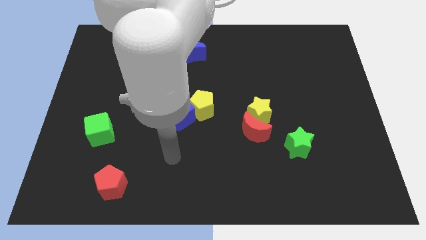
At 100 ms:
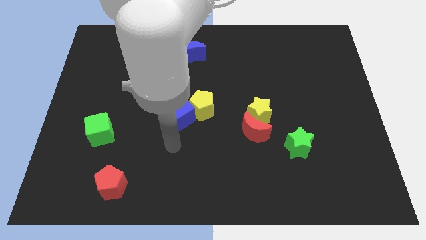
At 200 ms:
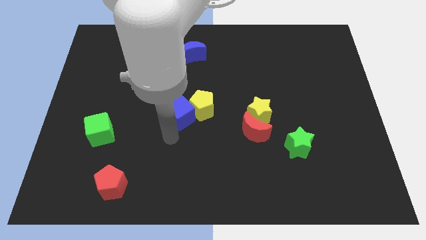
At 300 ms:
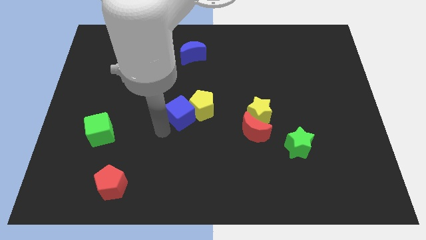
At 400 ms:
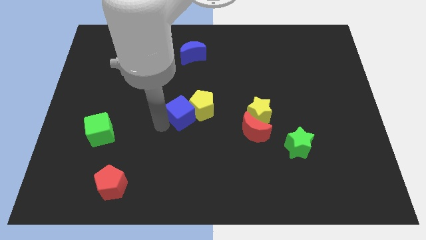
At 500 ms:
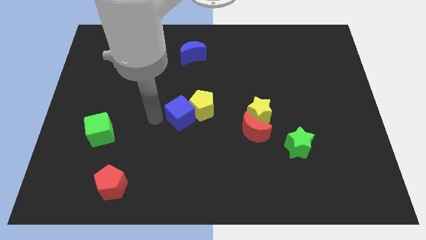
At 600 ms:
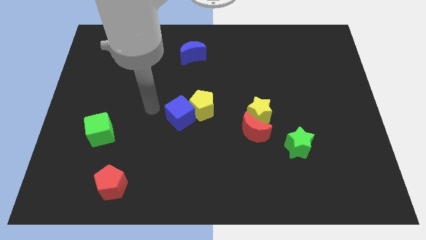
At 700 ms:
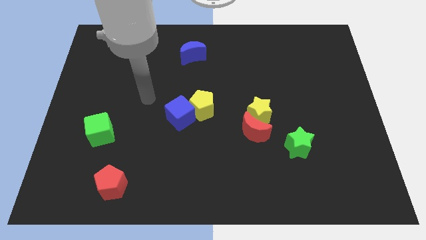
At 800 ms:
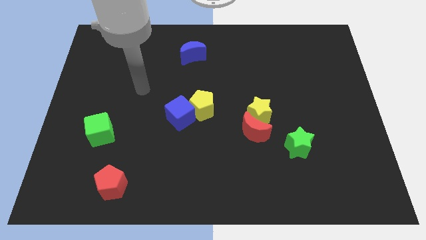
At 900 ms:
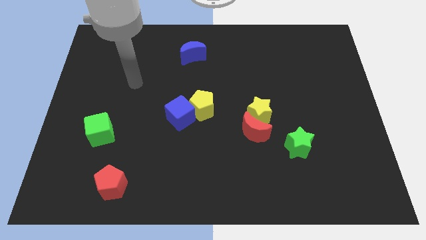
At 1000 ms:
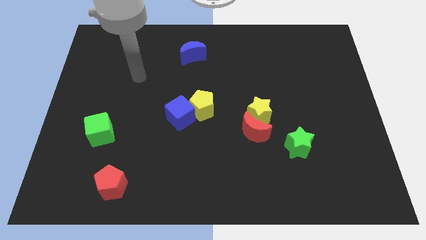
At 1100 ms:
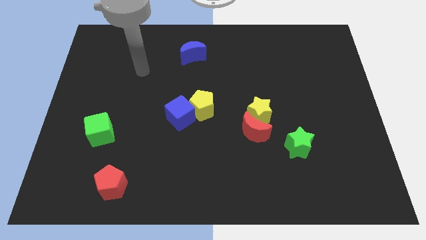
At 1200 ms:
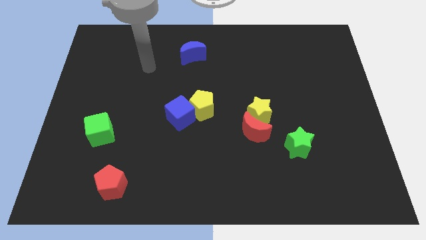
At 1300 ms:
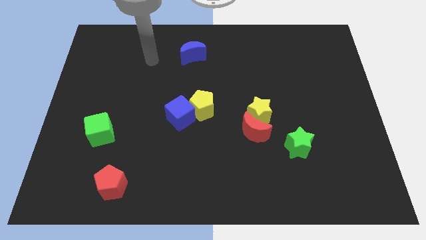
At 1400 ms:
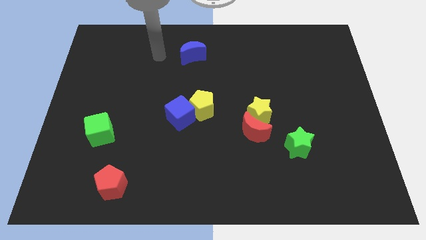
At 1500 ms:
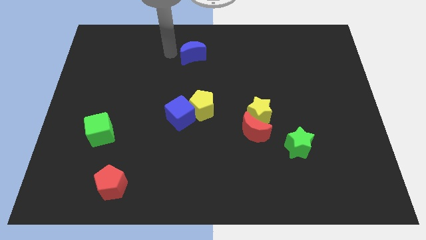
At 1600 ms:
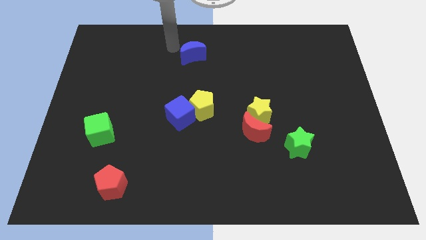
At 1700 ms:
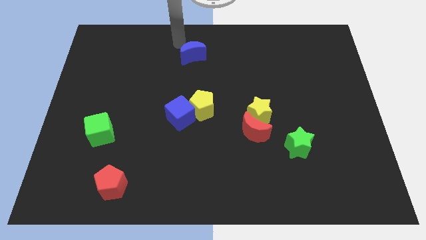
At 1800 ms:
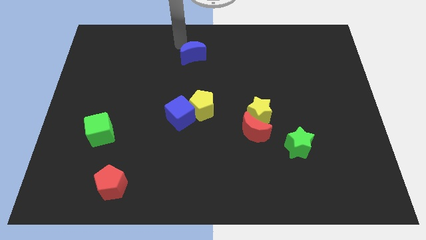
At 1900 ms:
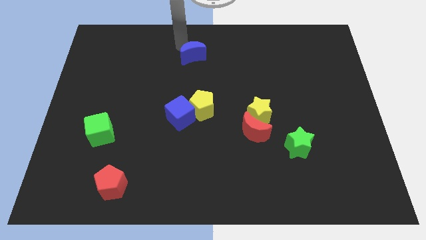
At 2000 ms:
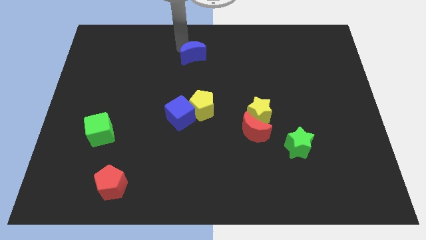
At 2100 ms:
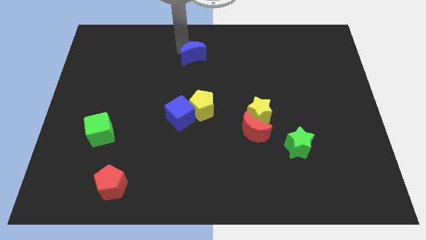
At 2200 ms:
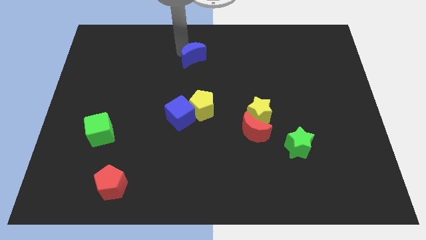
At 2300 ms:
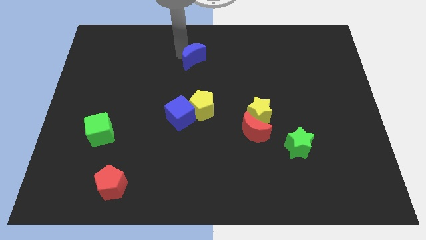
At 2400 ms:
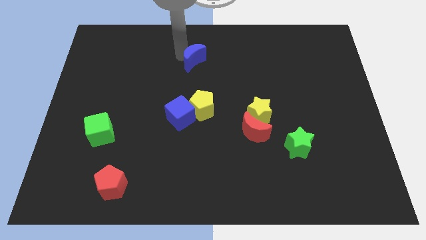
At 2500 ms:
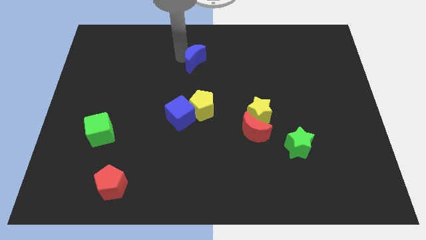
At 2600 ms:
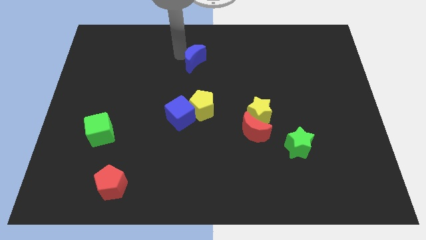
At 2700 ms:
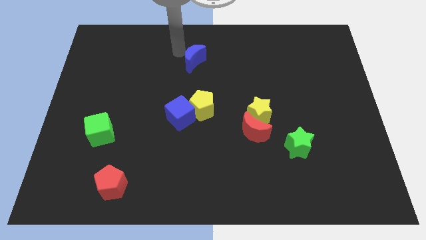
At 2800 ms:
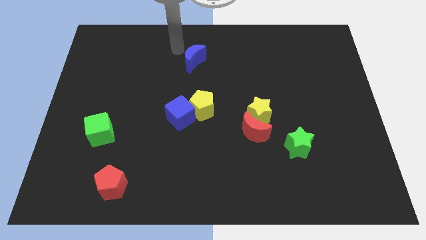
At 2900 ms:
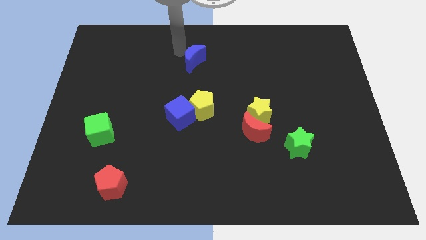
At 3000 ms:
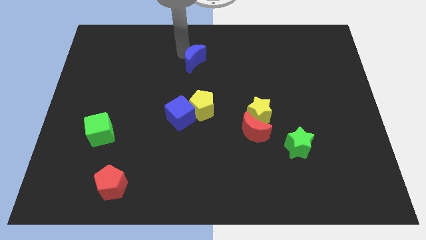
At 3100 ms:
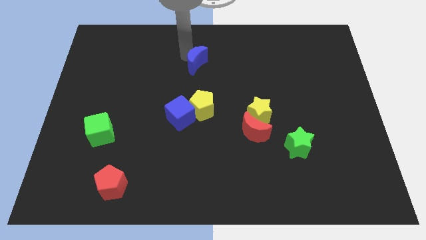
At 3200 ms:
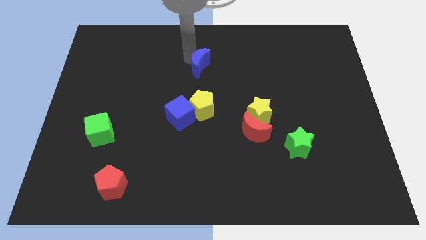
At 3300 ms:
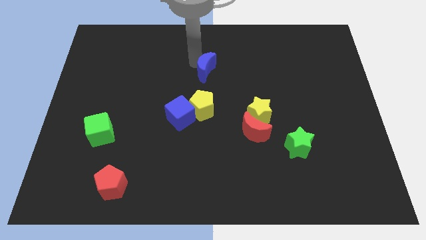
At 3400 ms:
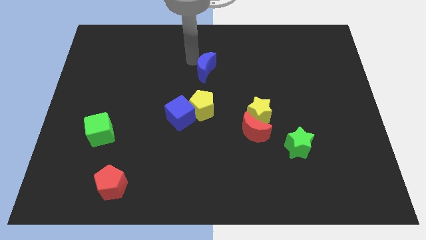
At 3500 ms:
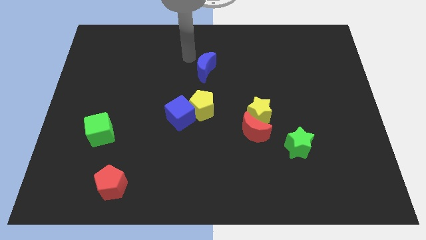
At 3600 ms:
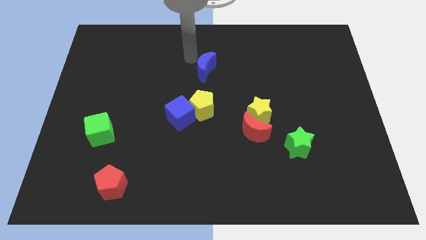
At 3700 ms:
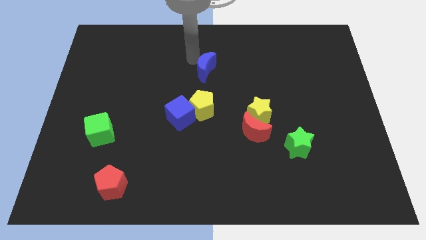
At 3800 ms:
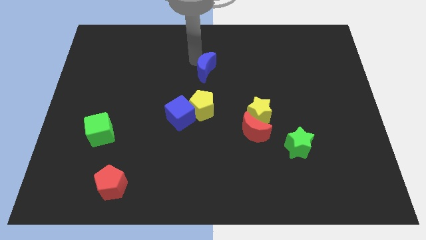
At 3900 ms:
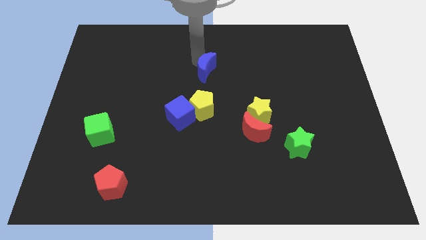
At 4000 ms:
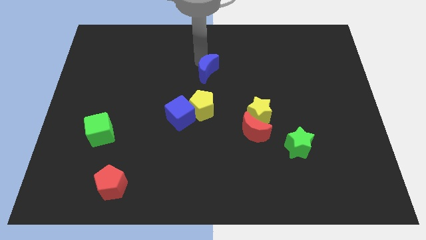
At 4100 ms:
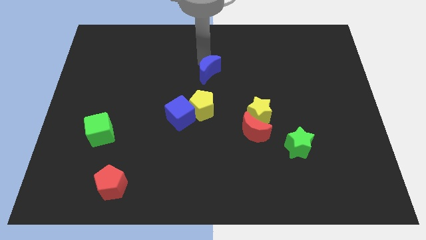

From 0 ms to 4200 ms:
slightly slide the blue moon down and right

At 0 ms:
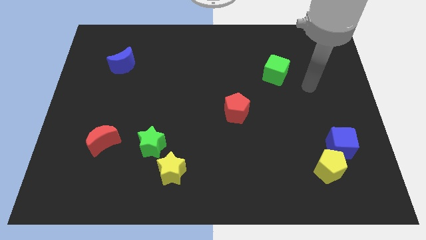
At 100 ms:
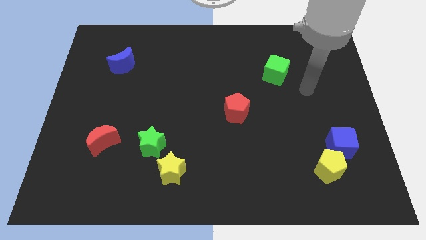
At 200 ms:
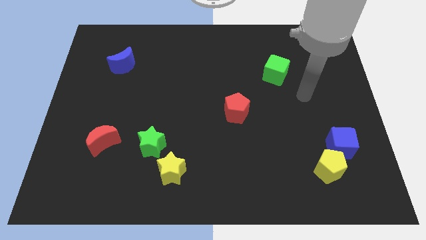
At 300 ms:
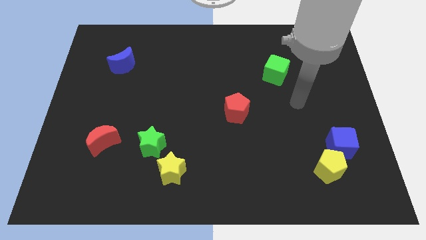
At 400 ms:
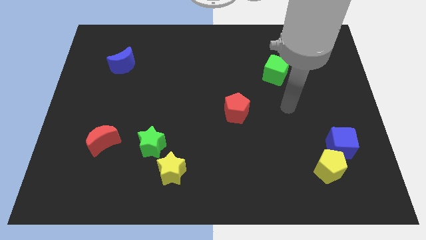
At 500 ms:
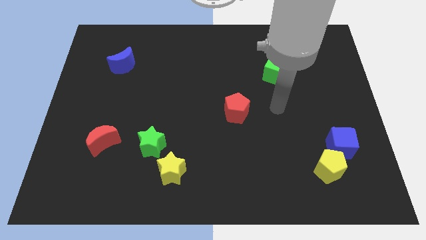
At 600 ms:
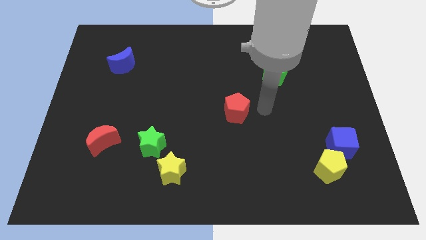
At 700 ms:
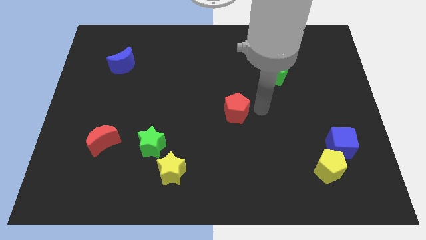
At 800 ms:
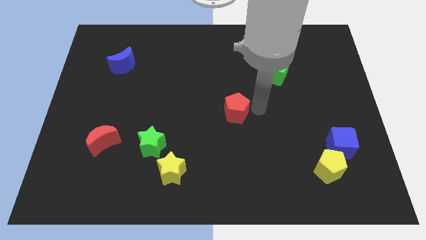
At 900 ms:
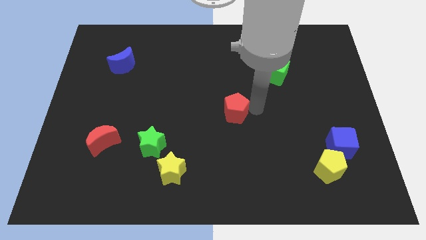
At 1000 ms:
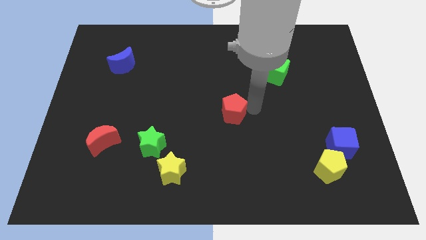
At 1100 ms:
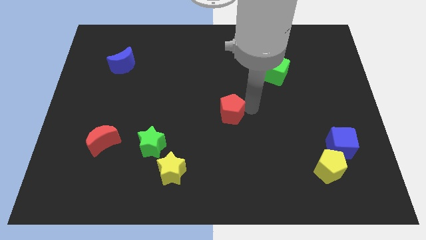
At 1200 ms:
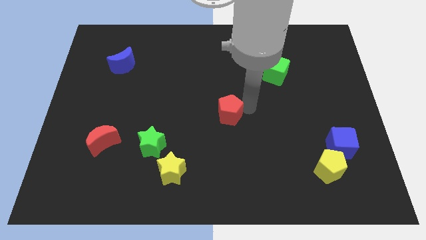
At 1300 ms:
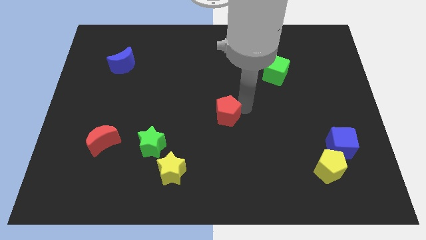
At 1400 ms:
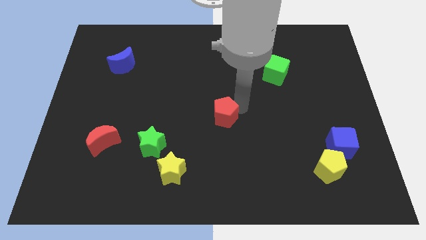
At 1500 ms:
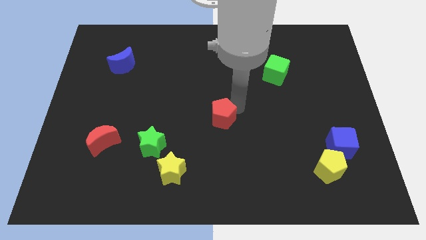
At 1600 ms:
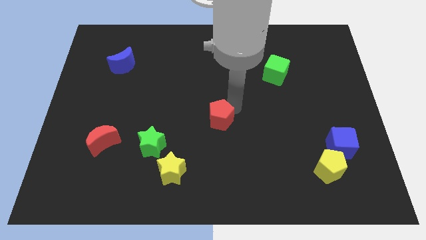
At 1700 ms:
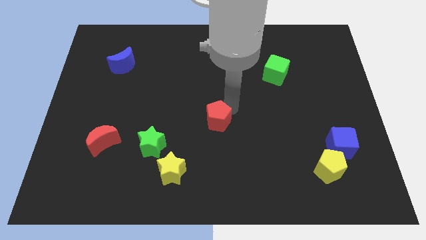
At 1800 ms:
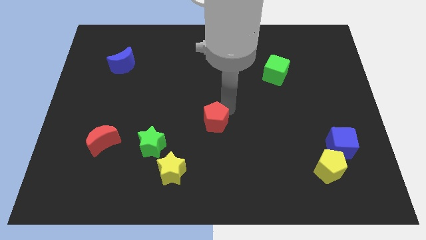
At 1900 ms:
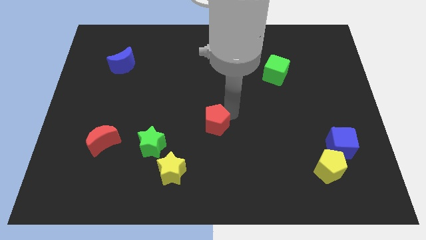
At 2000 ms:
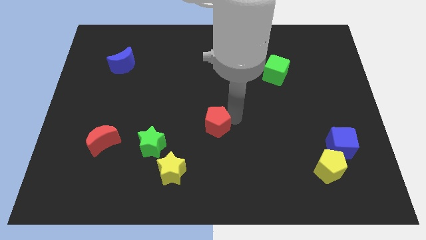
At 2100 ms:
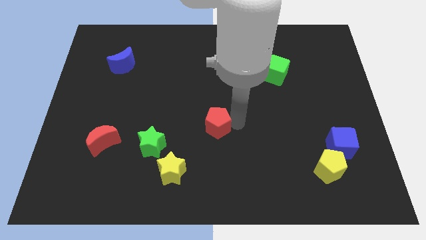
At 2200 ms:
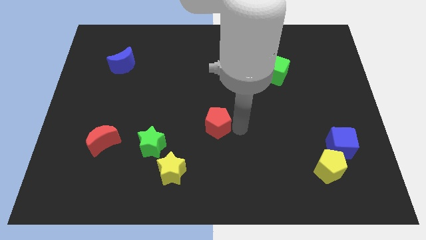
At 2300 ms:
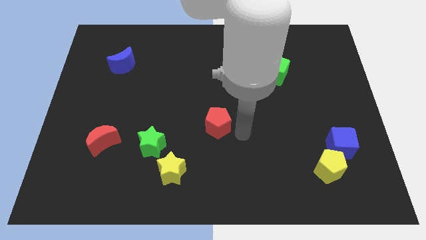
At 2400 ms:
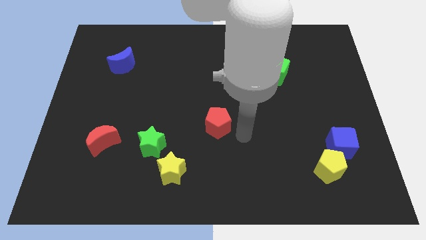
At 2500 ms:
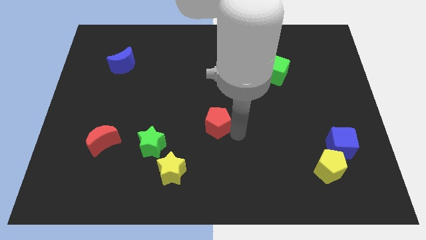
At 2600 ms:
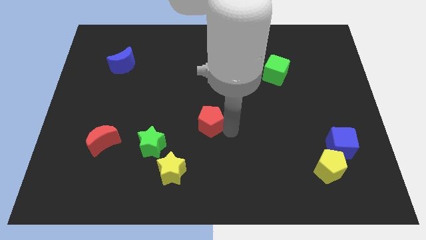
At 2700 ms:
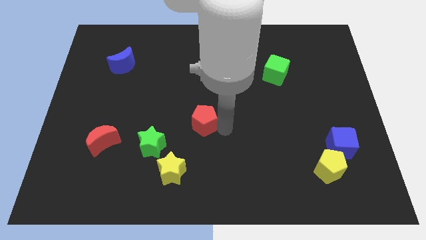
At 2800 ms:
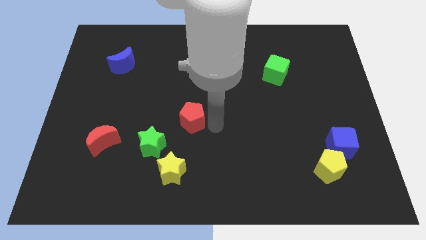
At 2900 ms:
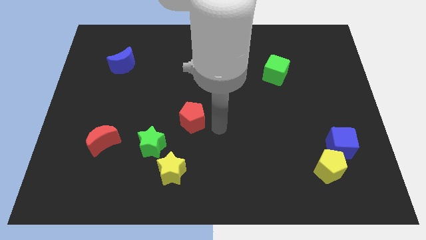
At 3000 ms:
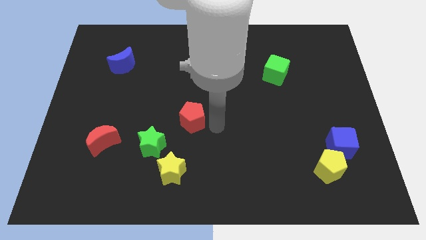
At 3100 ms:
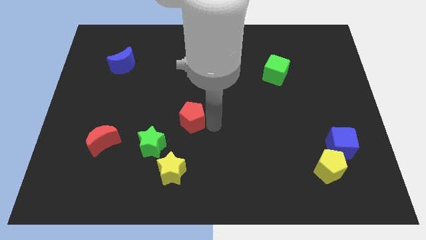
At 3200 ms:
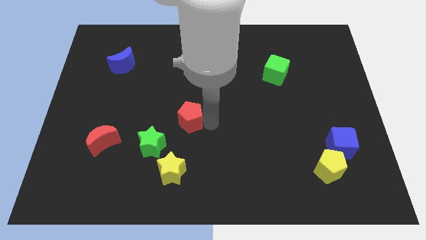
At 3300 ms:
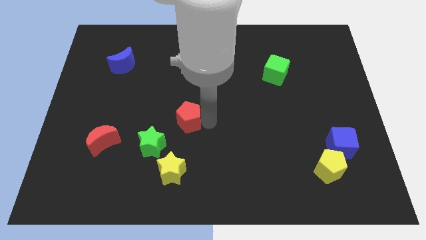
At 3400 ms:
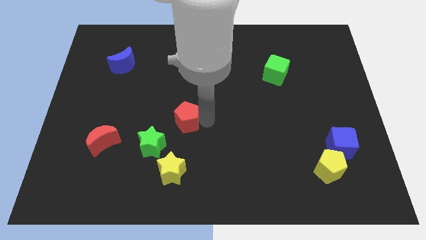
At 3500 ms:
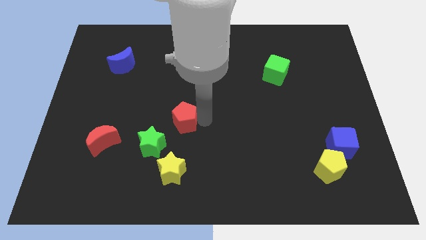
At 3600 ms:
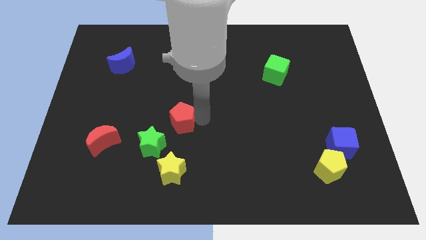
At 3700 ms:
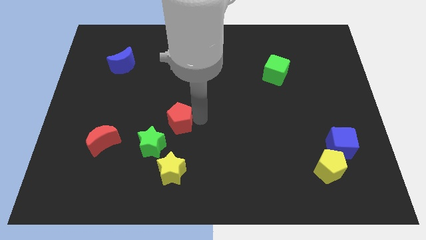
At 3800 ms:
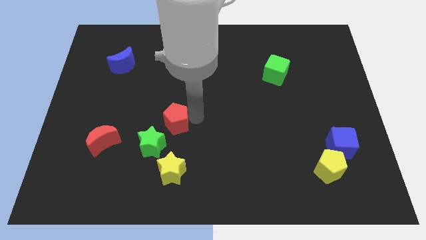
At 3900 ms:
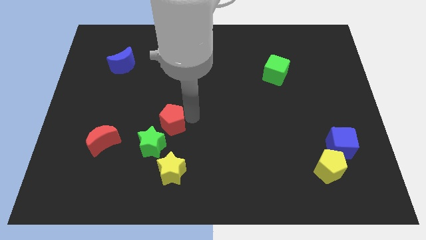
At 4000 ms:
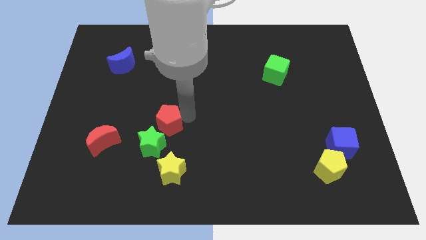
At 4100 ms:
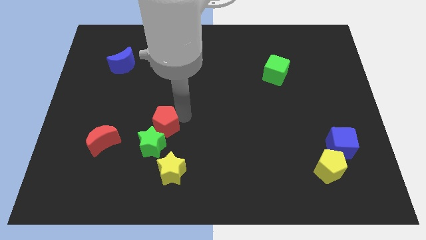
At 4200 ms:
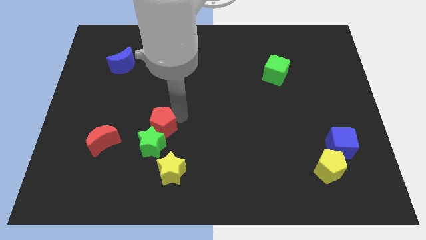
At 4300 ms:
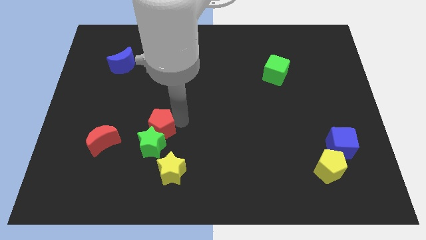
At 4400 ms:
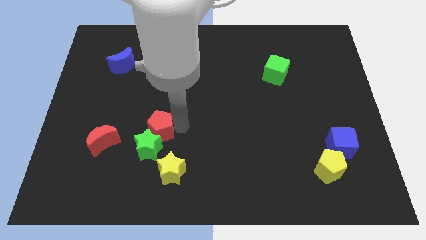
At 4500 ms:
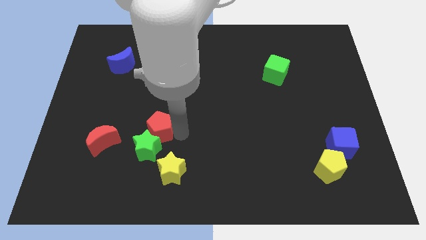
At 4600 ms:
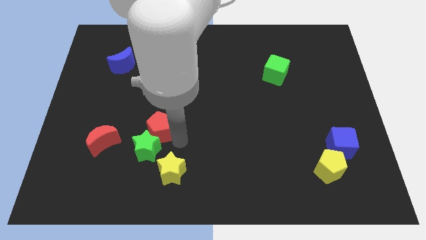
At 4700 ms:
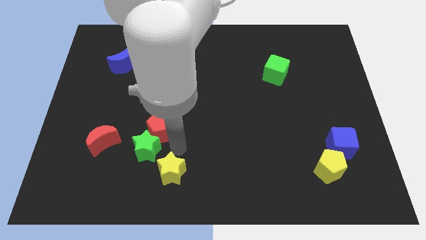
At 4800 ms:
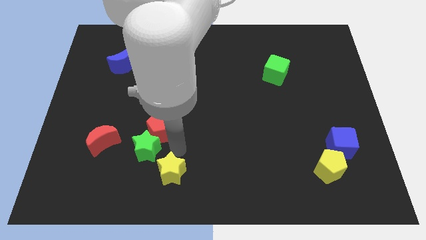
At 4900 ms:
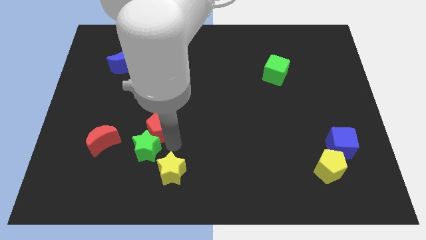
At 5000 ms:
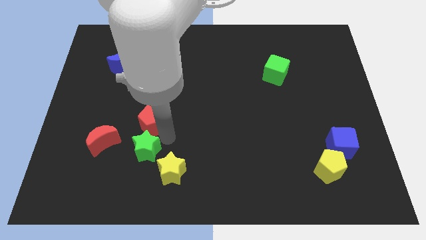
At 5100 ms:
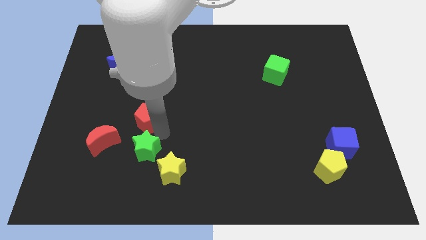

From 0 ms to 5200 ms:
move the red pentagon left
